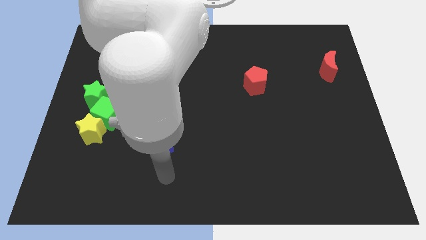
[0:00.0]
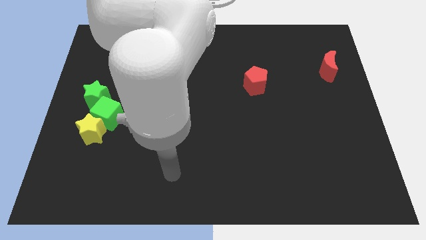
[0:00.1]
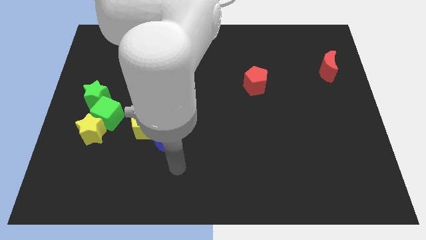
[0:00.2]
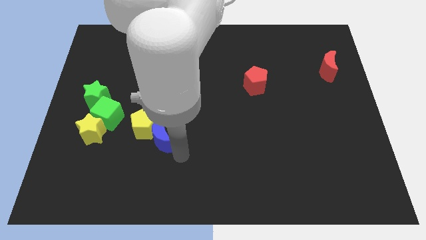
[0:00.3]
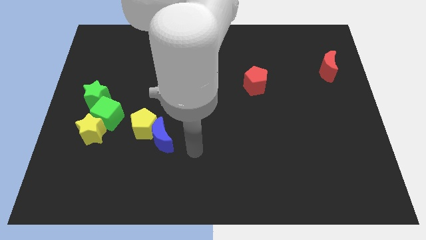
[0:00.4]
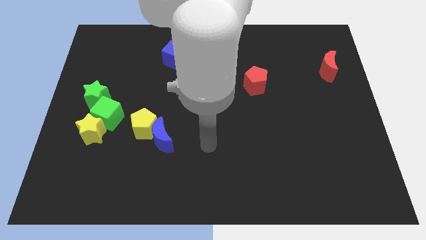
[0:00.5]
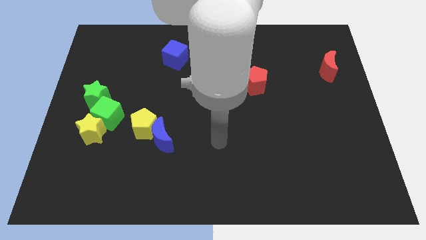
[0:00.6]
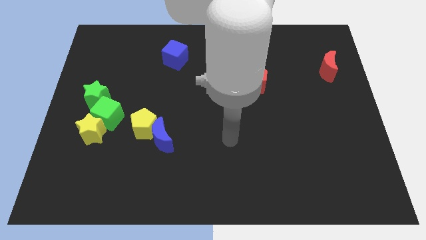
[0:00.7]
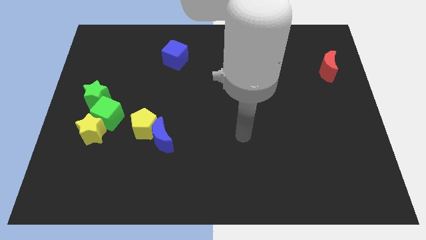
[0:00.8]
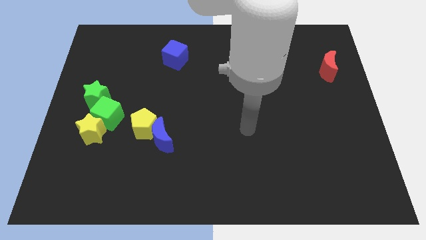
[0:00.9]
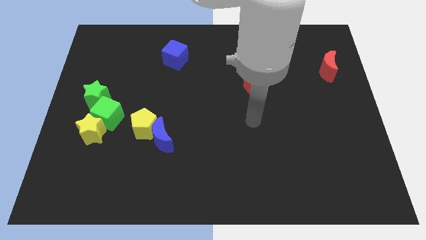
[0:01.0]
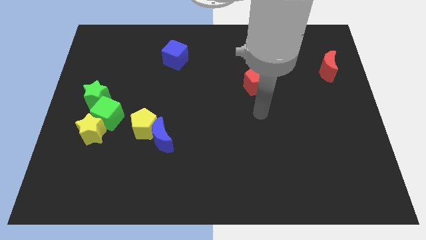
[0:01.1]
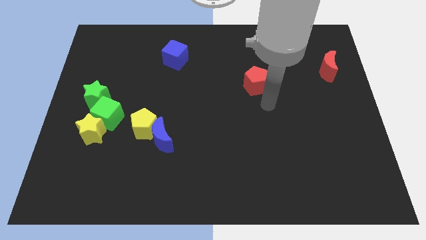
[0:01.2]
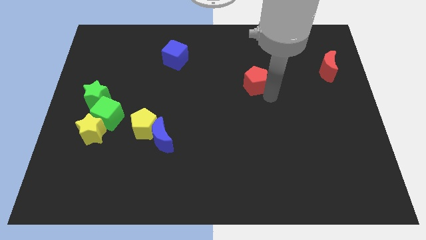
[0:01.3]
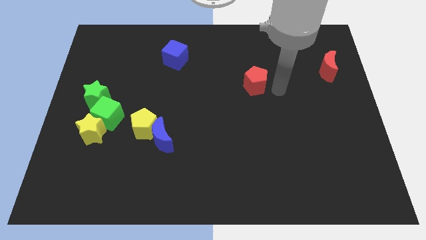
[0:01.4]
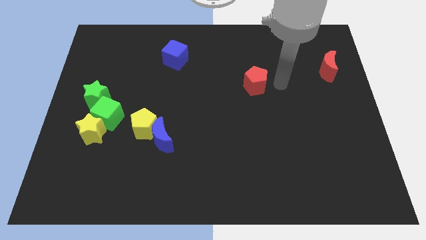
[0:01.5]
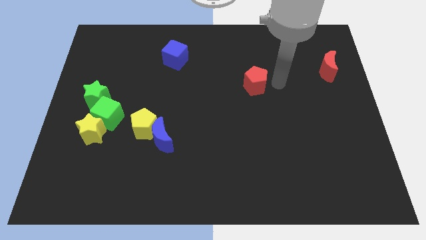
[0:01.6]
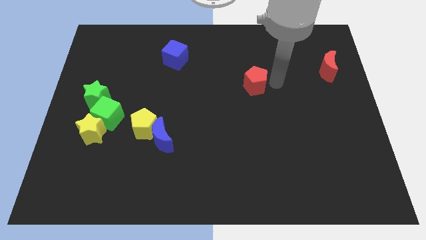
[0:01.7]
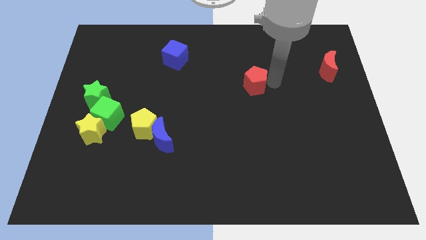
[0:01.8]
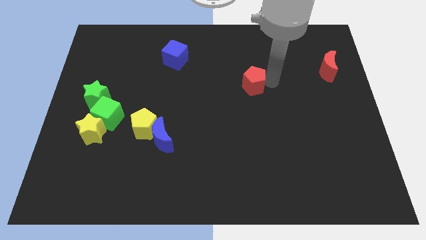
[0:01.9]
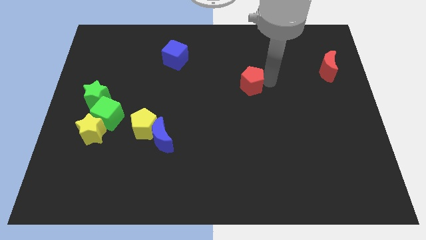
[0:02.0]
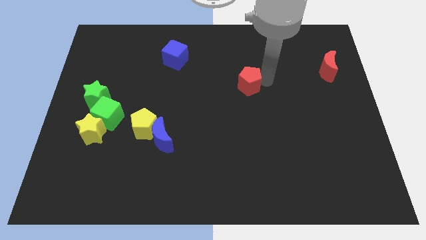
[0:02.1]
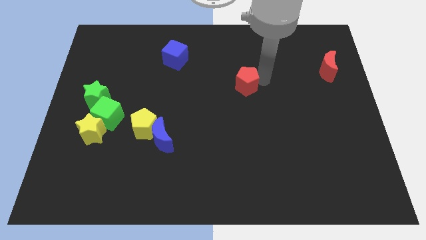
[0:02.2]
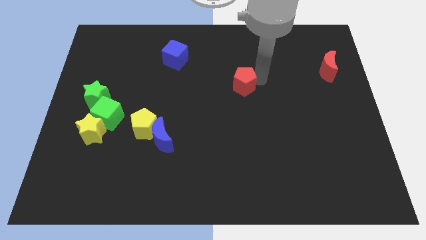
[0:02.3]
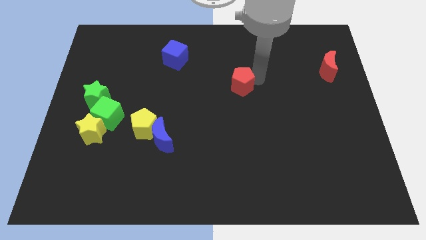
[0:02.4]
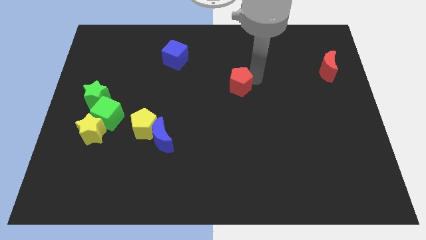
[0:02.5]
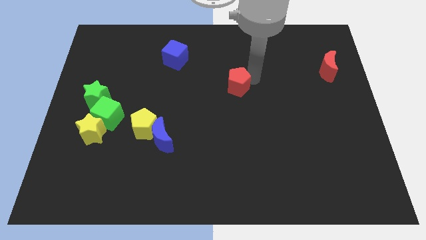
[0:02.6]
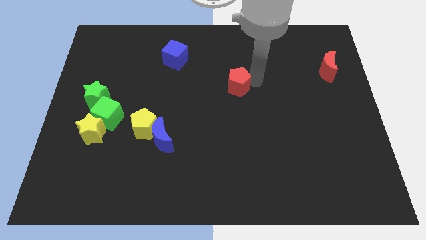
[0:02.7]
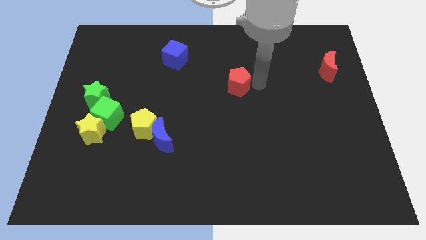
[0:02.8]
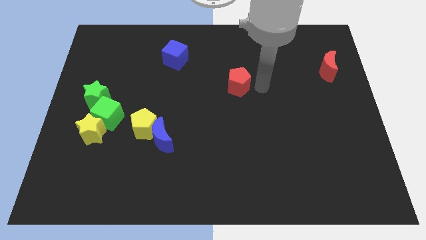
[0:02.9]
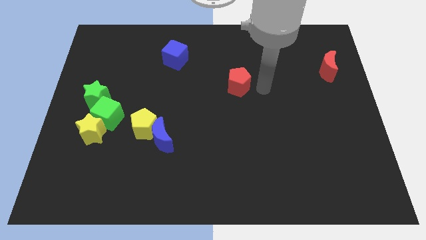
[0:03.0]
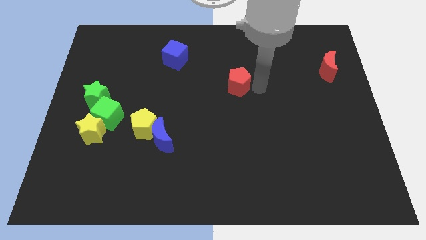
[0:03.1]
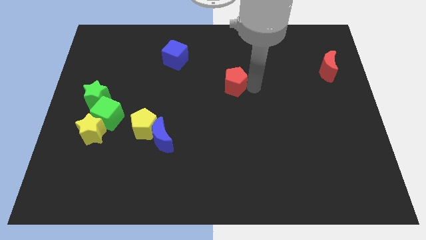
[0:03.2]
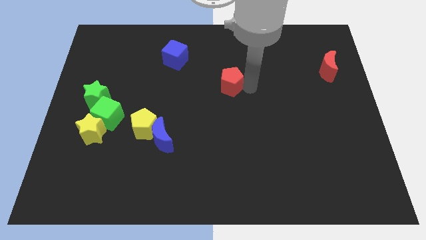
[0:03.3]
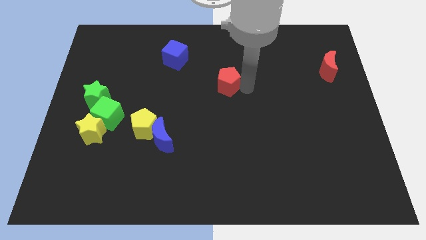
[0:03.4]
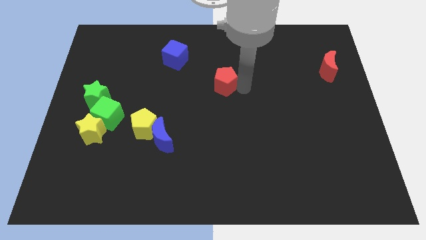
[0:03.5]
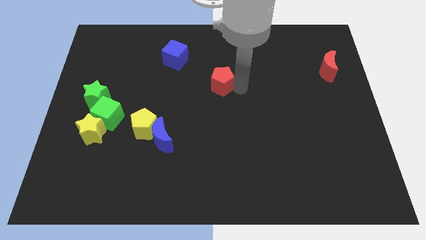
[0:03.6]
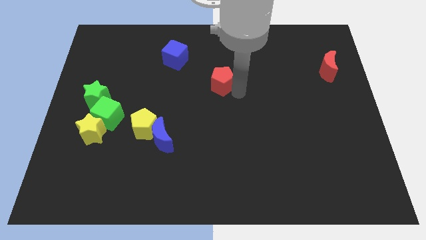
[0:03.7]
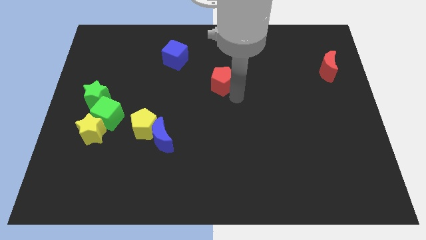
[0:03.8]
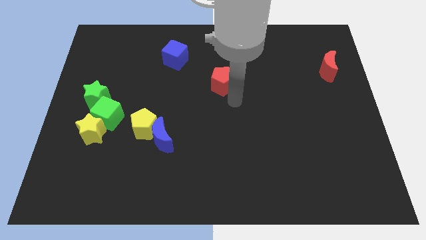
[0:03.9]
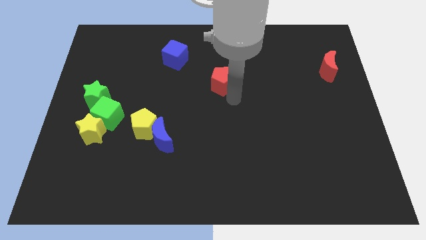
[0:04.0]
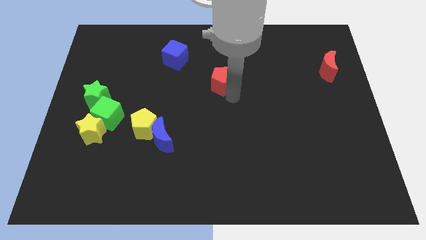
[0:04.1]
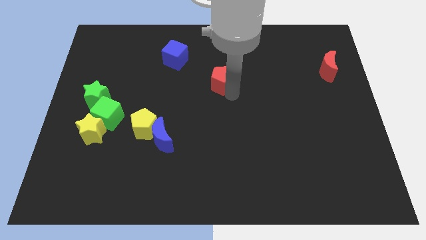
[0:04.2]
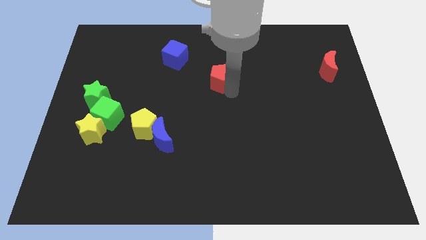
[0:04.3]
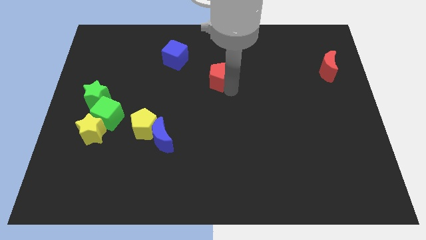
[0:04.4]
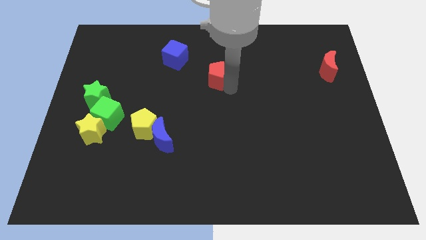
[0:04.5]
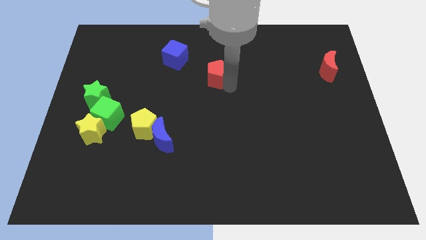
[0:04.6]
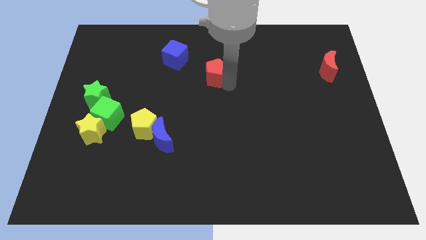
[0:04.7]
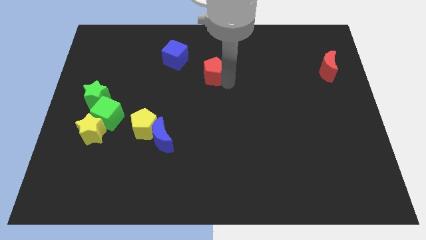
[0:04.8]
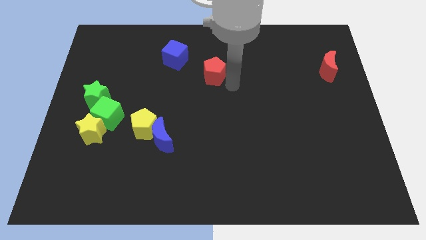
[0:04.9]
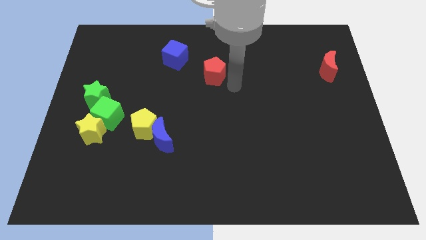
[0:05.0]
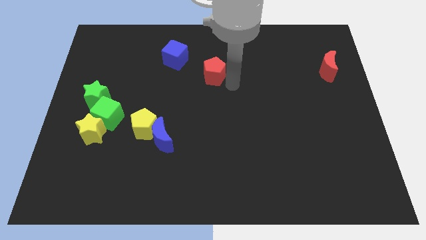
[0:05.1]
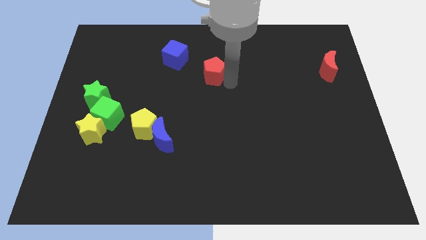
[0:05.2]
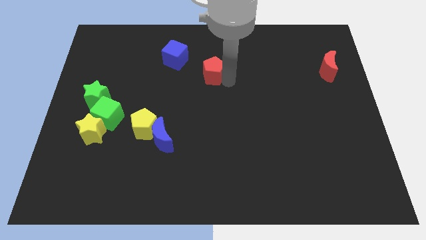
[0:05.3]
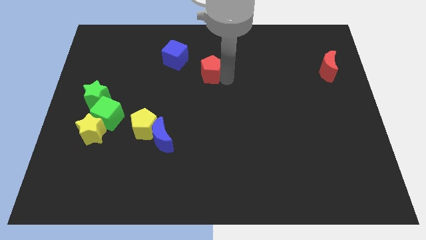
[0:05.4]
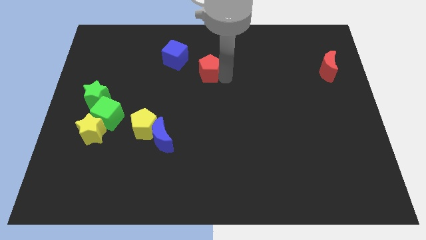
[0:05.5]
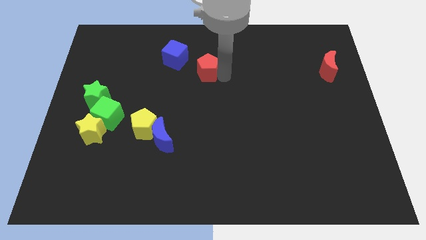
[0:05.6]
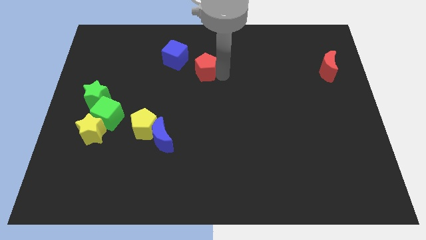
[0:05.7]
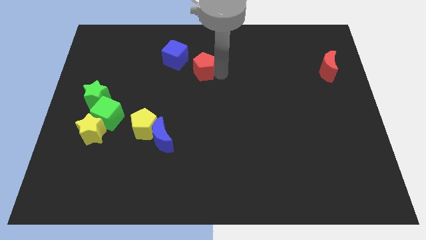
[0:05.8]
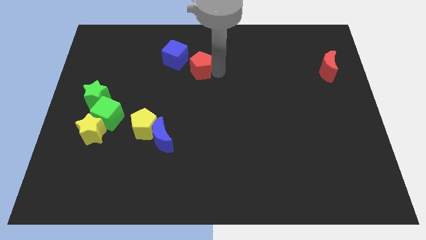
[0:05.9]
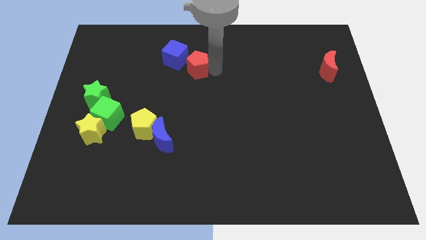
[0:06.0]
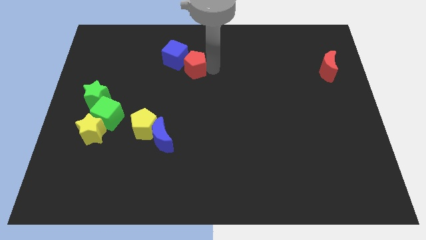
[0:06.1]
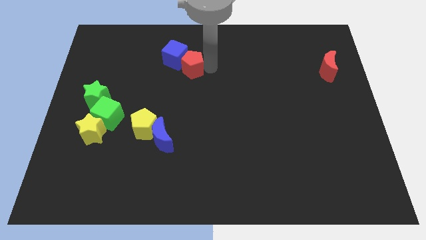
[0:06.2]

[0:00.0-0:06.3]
push the red pentagon to the blue cube

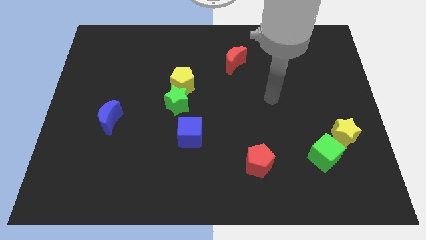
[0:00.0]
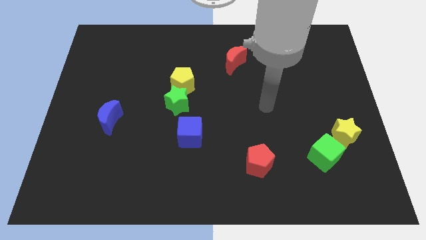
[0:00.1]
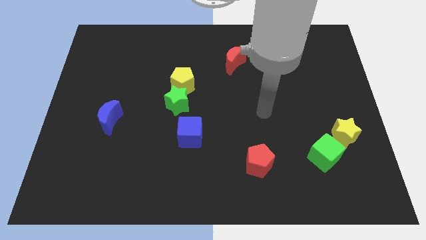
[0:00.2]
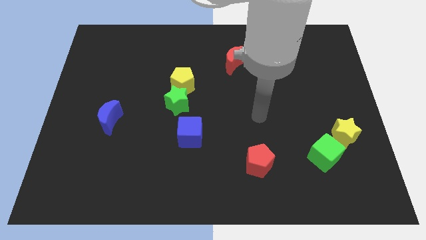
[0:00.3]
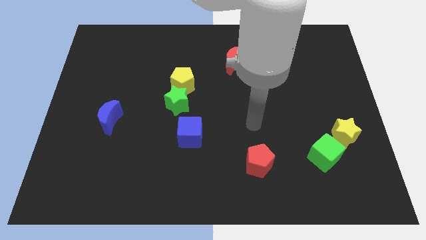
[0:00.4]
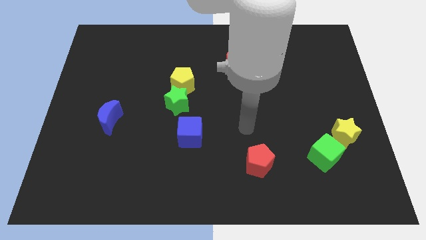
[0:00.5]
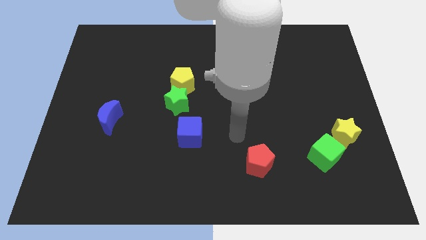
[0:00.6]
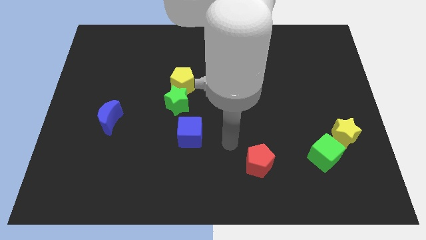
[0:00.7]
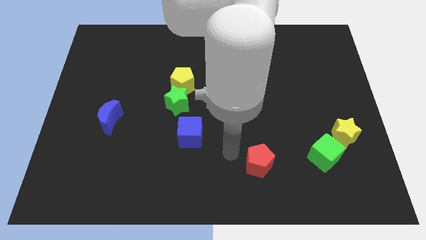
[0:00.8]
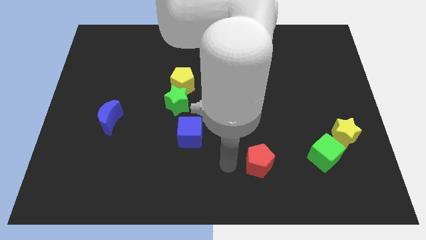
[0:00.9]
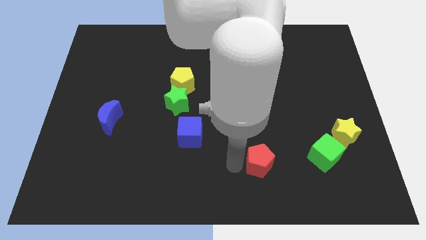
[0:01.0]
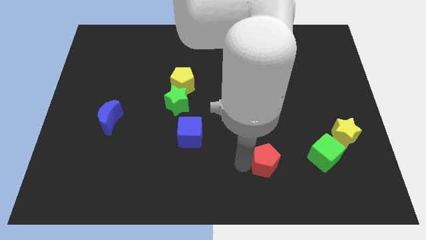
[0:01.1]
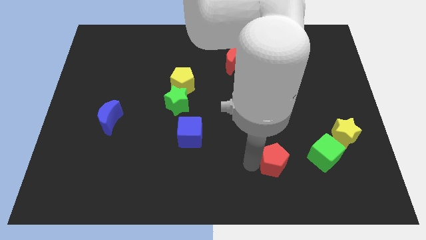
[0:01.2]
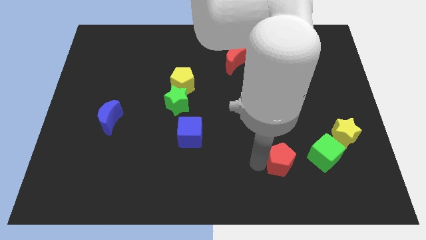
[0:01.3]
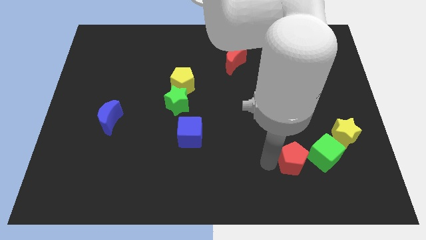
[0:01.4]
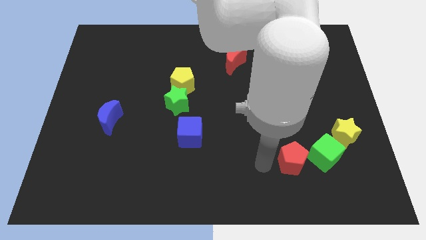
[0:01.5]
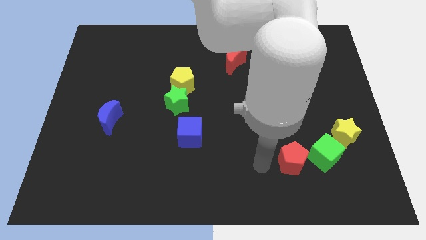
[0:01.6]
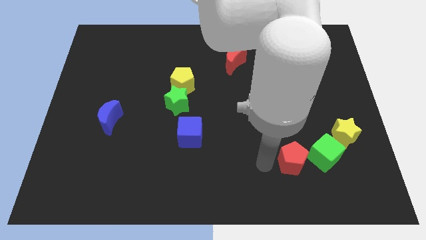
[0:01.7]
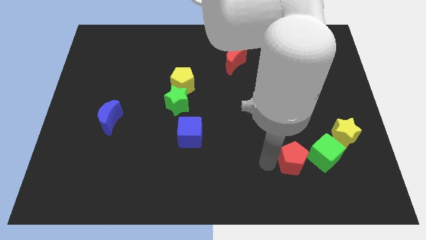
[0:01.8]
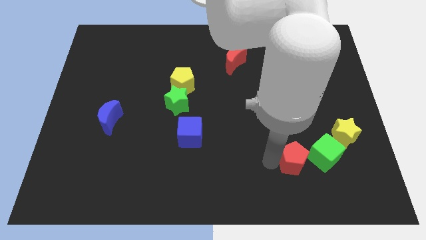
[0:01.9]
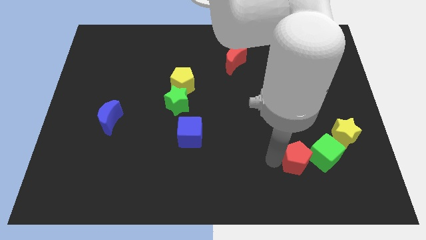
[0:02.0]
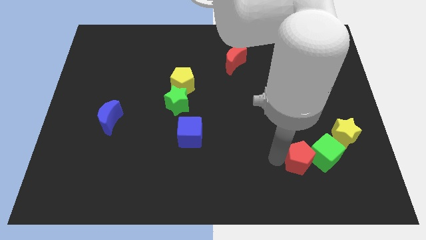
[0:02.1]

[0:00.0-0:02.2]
put the red pentagon next to the green cube
